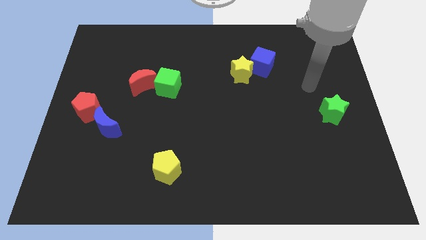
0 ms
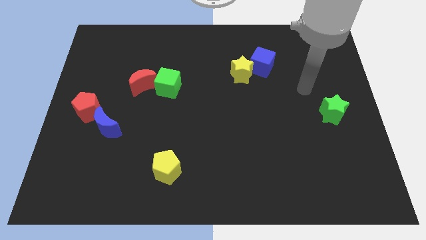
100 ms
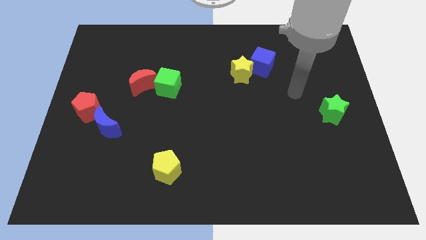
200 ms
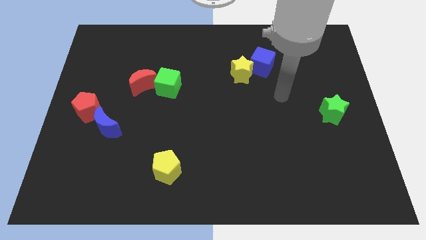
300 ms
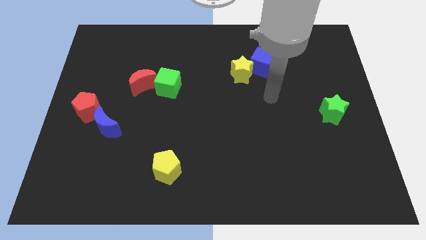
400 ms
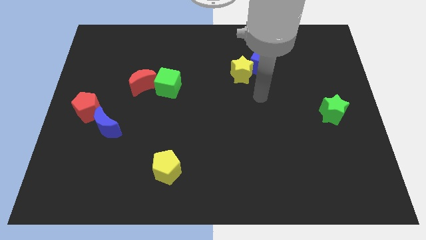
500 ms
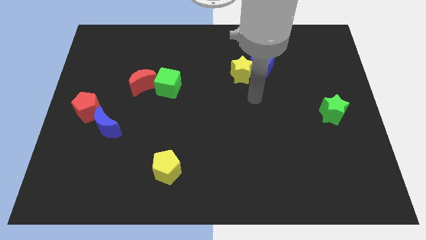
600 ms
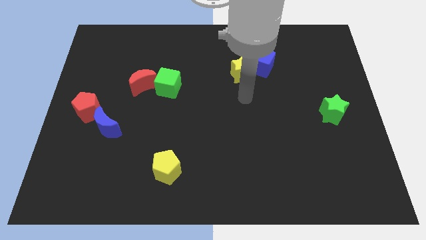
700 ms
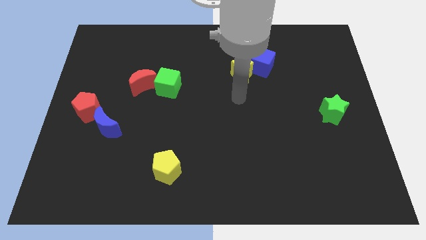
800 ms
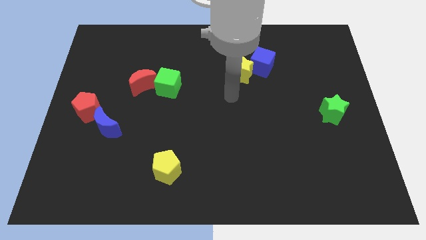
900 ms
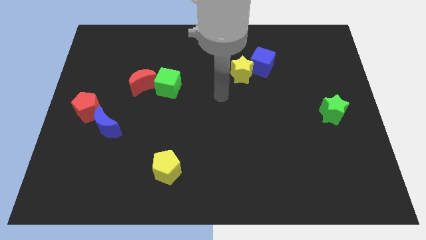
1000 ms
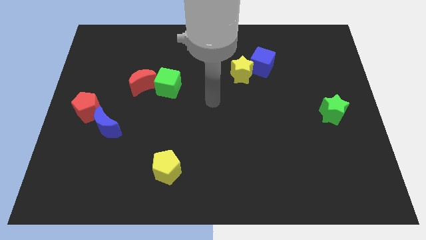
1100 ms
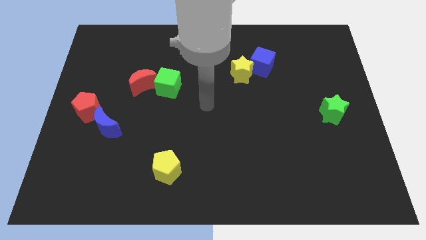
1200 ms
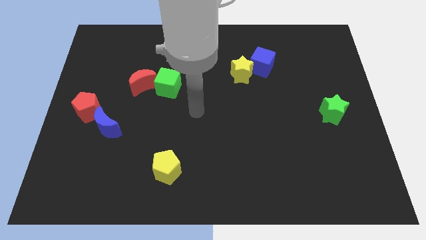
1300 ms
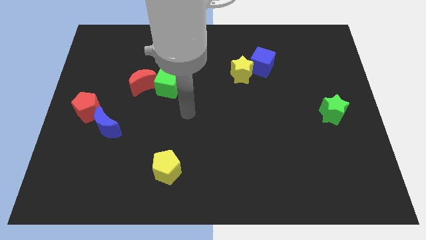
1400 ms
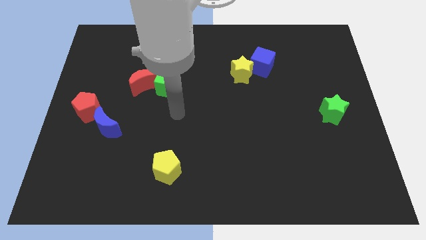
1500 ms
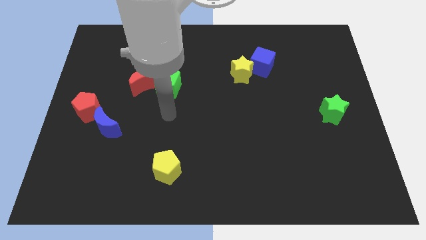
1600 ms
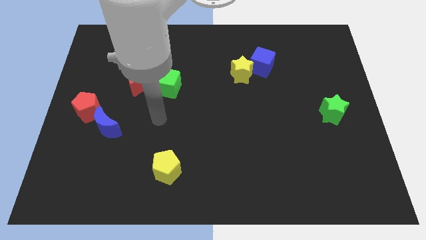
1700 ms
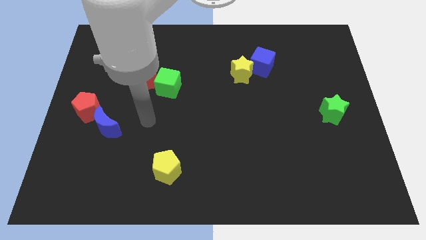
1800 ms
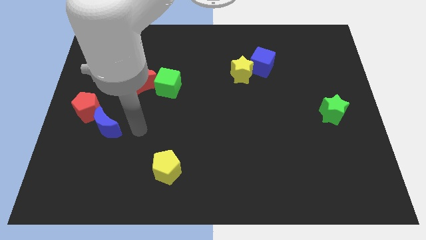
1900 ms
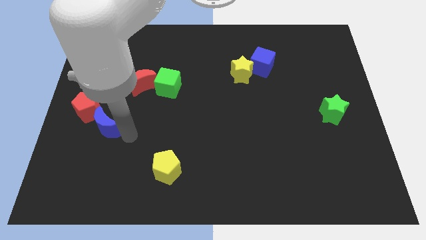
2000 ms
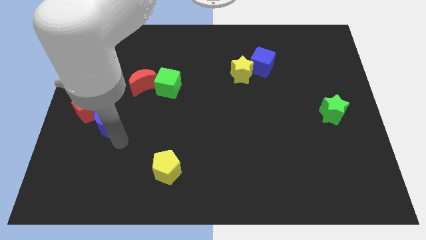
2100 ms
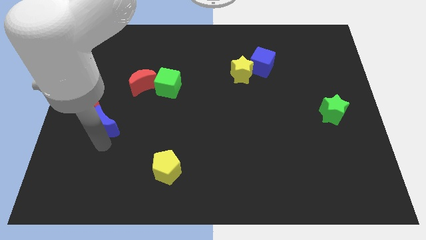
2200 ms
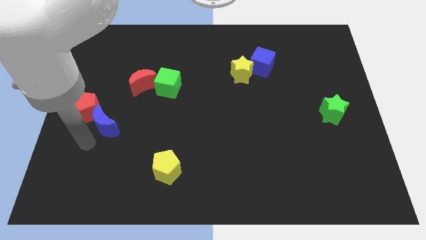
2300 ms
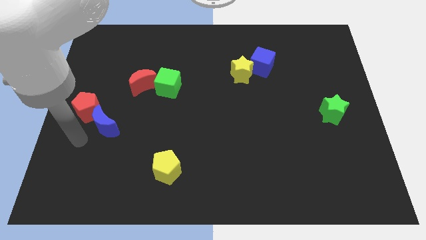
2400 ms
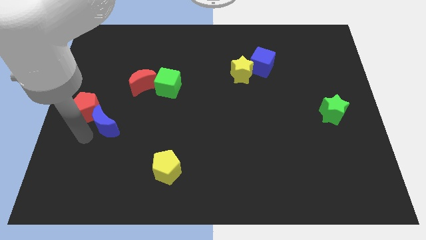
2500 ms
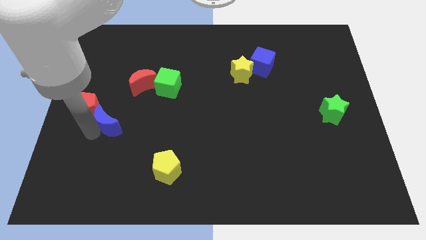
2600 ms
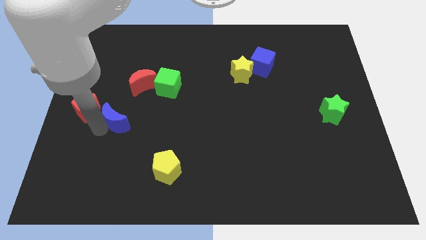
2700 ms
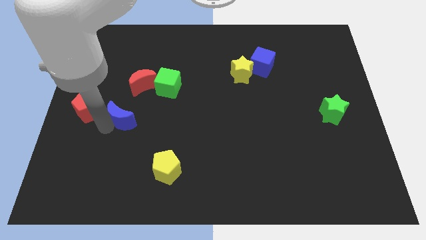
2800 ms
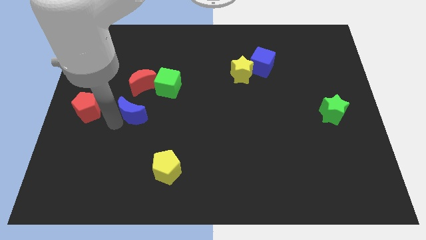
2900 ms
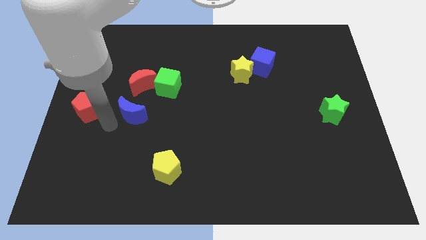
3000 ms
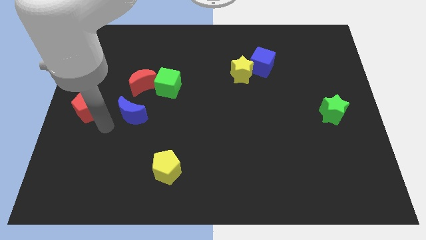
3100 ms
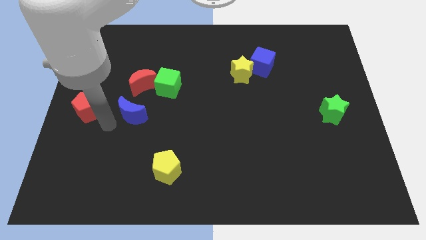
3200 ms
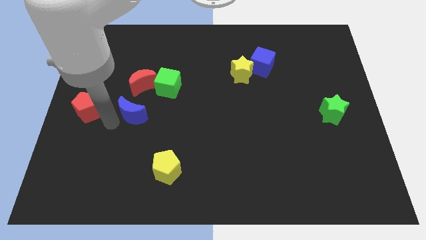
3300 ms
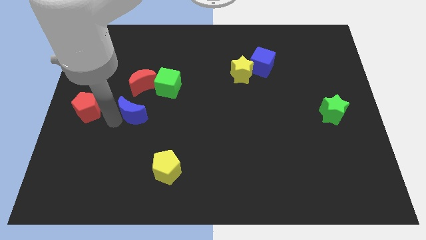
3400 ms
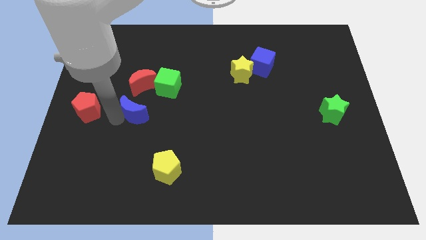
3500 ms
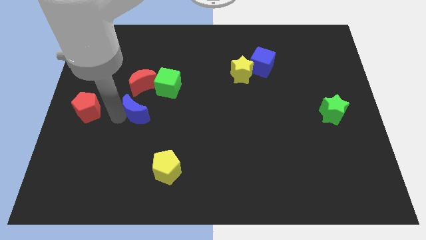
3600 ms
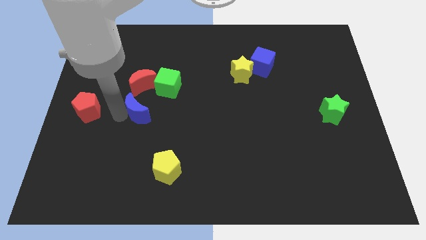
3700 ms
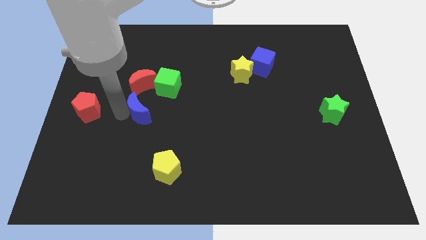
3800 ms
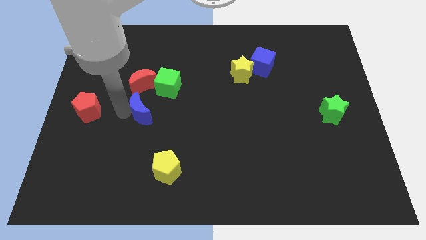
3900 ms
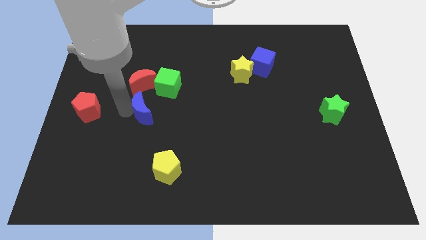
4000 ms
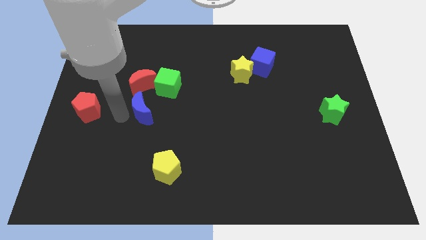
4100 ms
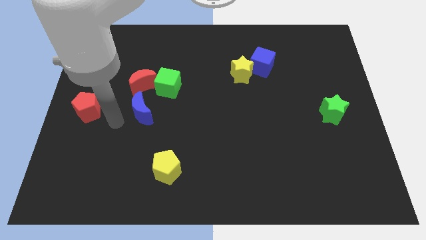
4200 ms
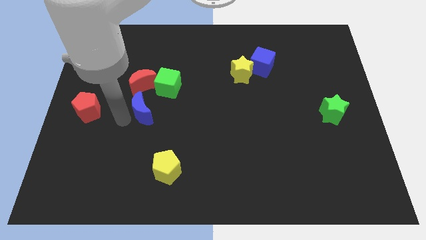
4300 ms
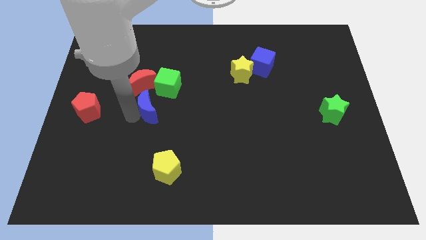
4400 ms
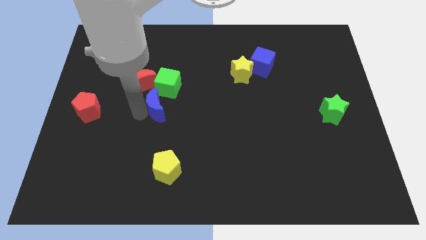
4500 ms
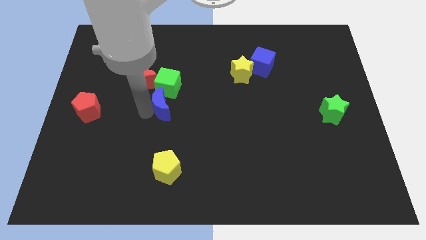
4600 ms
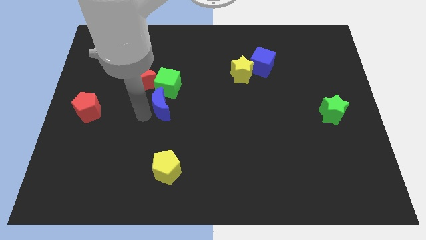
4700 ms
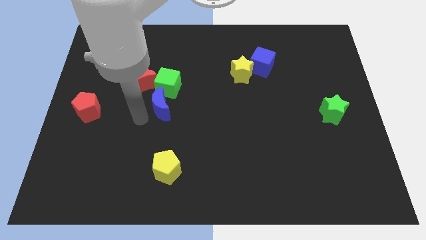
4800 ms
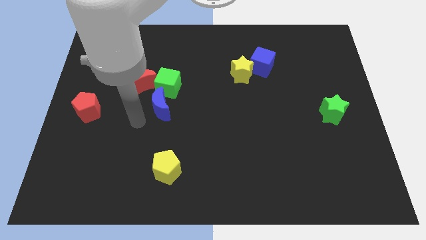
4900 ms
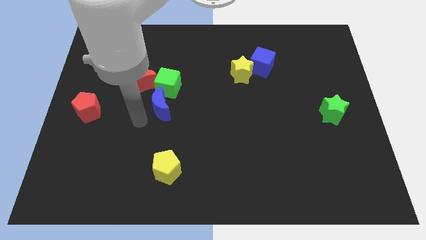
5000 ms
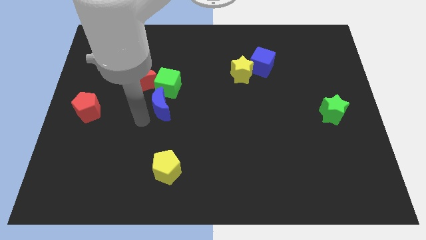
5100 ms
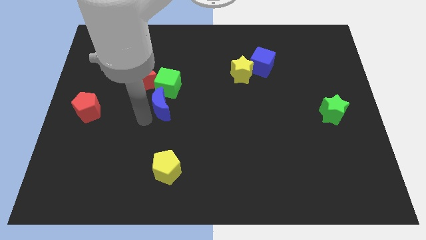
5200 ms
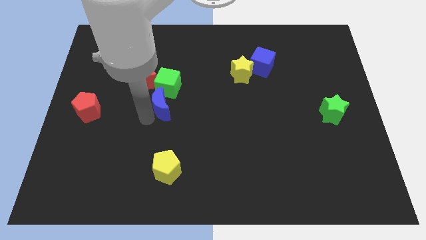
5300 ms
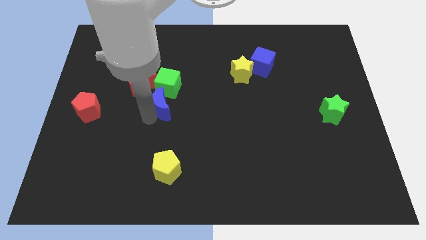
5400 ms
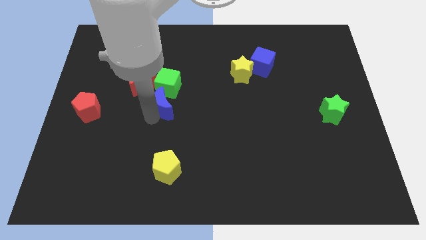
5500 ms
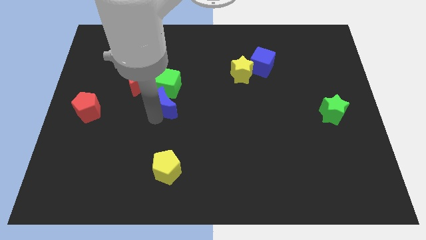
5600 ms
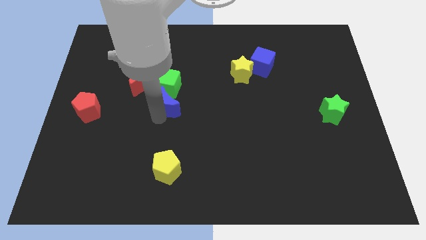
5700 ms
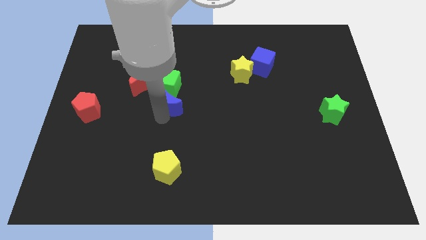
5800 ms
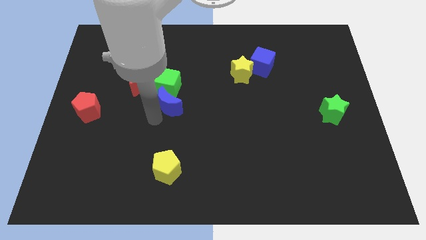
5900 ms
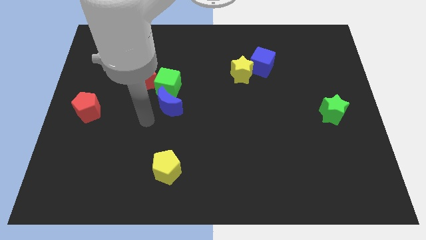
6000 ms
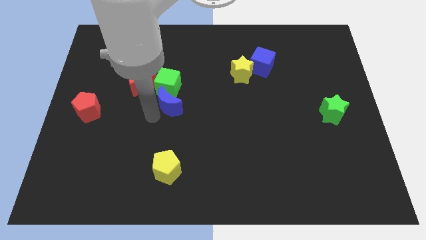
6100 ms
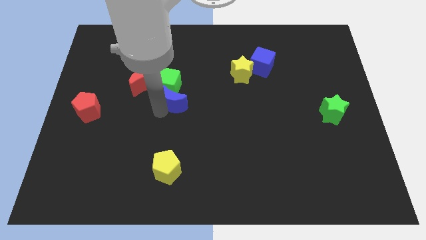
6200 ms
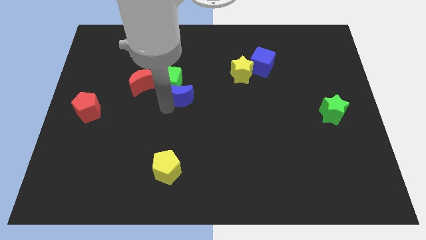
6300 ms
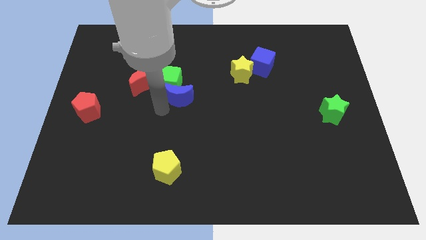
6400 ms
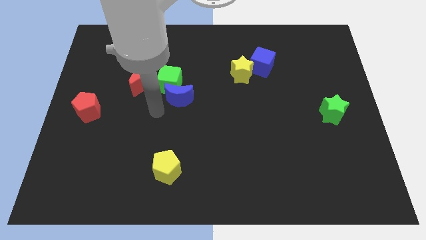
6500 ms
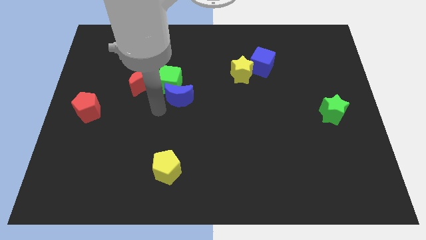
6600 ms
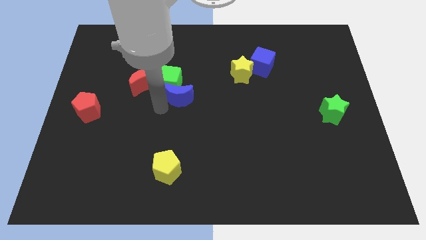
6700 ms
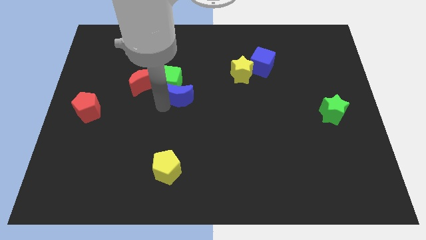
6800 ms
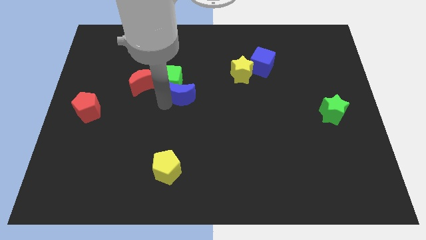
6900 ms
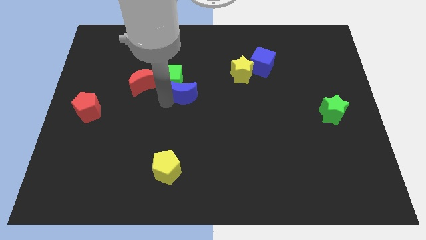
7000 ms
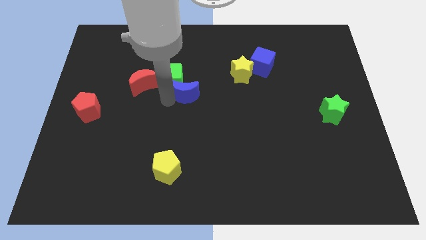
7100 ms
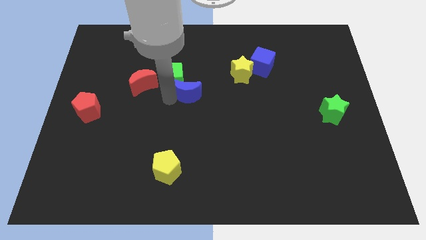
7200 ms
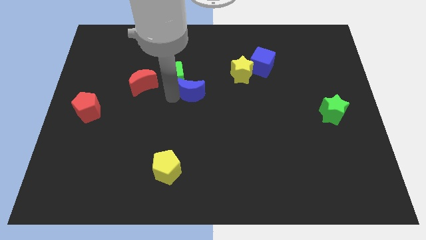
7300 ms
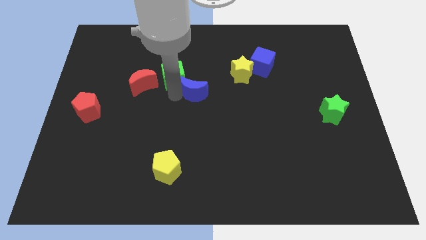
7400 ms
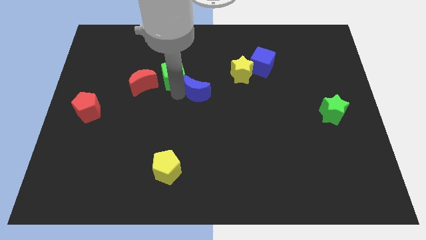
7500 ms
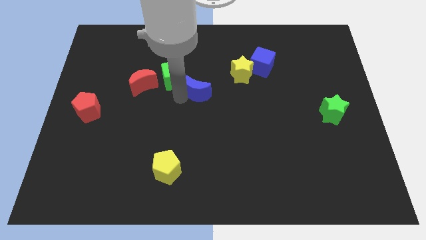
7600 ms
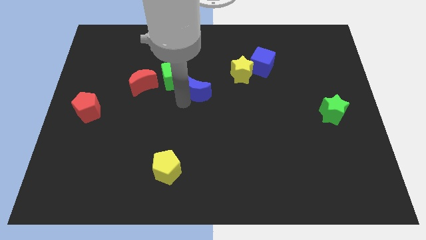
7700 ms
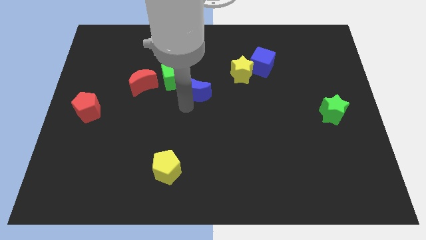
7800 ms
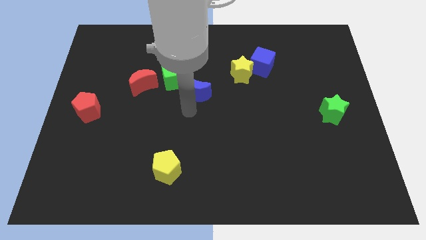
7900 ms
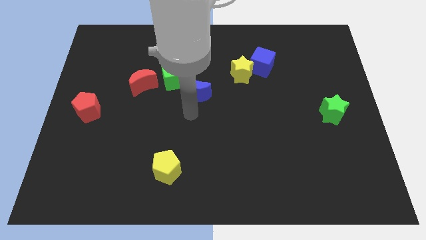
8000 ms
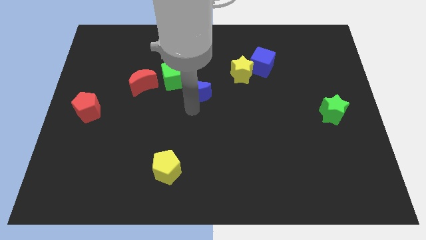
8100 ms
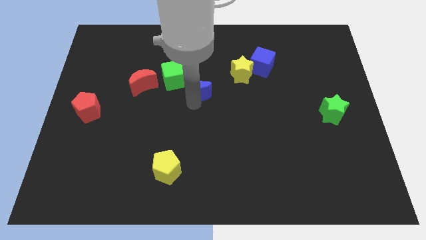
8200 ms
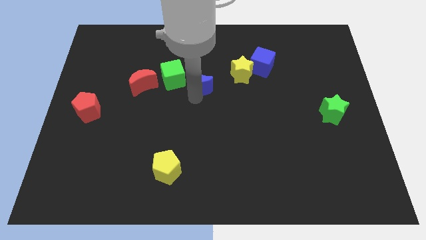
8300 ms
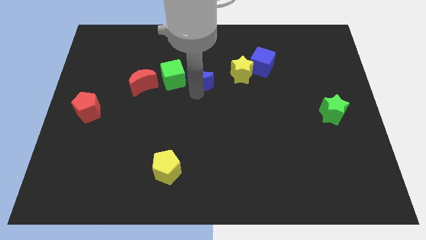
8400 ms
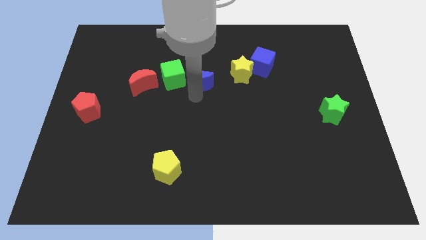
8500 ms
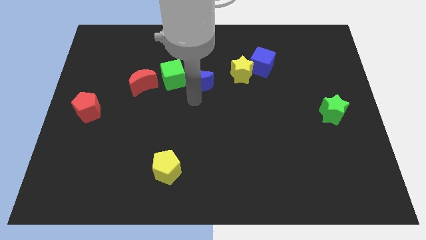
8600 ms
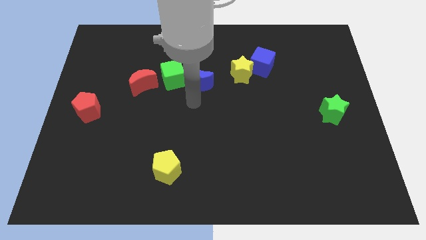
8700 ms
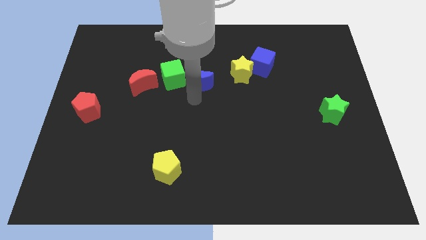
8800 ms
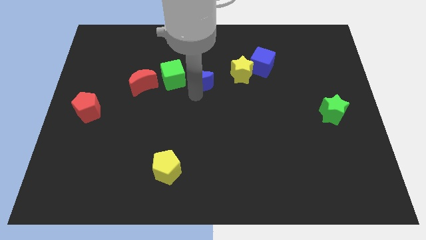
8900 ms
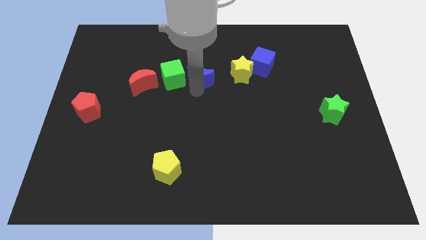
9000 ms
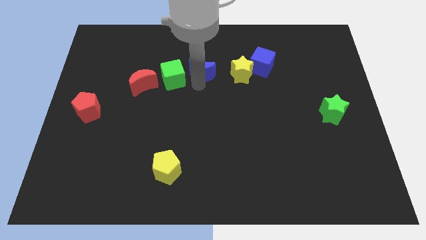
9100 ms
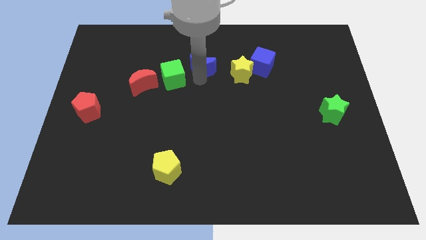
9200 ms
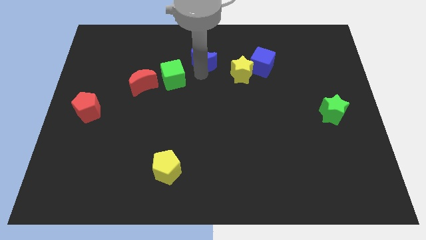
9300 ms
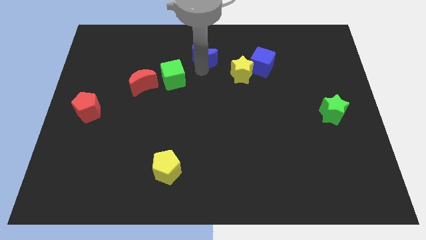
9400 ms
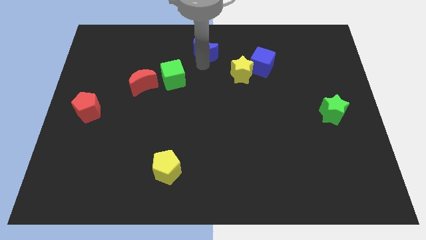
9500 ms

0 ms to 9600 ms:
put the blue moon to the top
